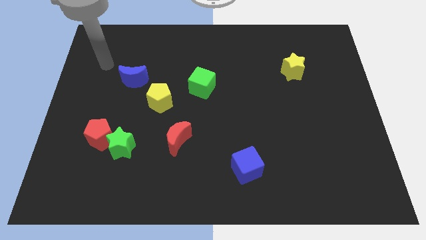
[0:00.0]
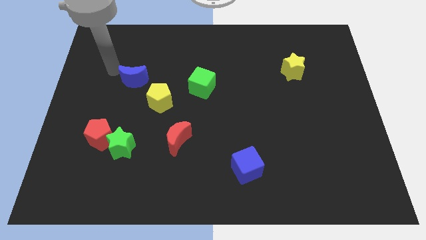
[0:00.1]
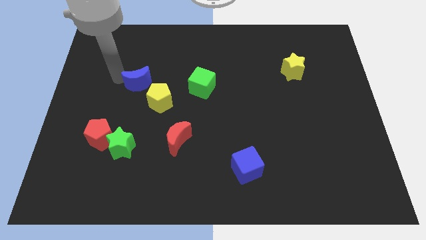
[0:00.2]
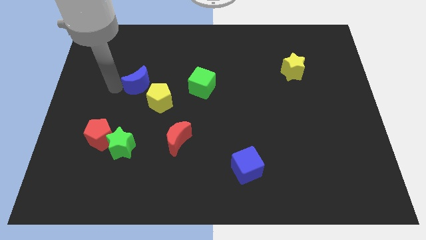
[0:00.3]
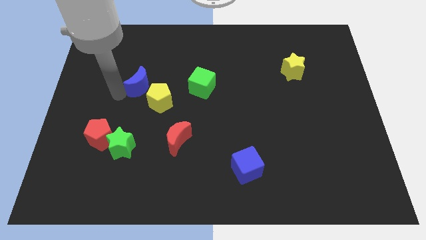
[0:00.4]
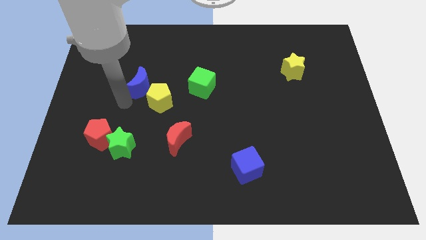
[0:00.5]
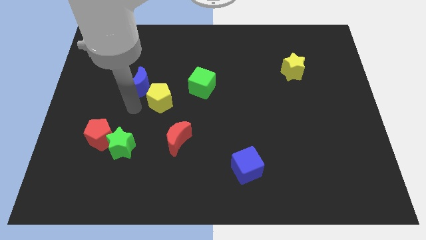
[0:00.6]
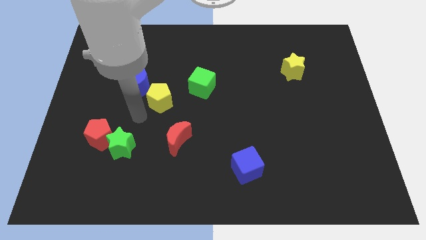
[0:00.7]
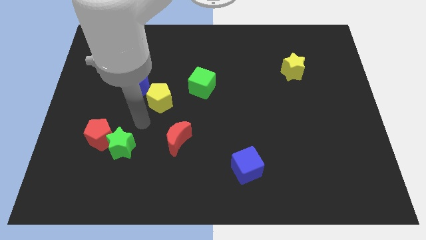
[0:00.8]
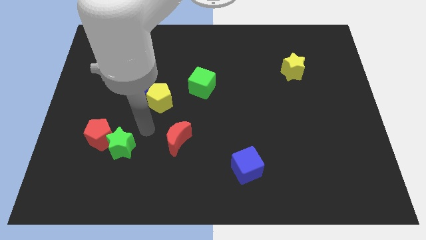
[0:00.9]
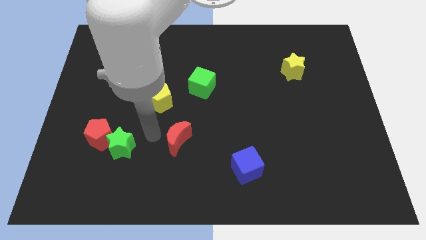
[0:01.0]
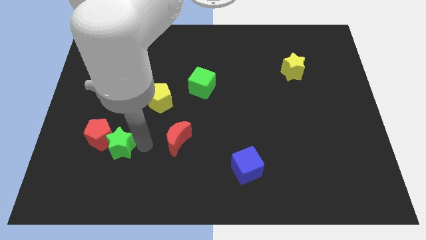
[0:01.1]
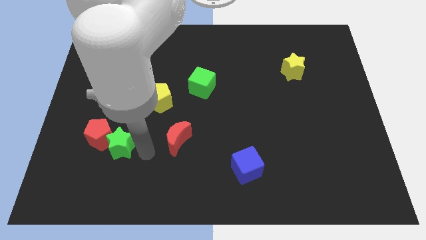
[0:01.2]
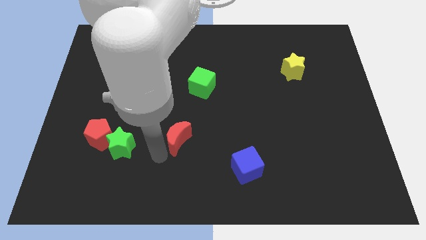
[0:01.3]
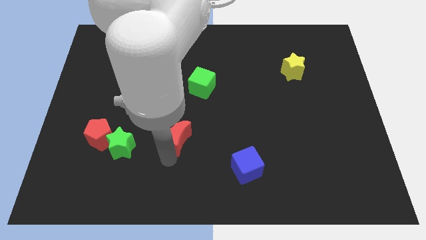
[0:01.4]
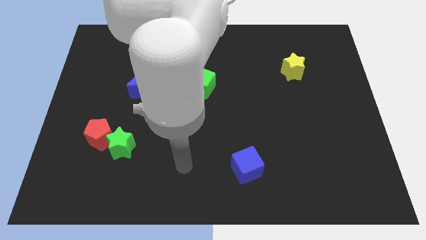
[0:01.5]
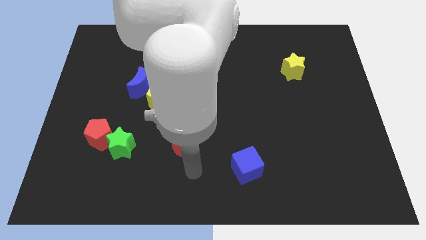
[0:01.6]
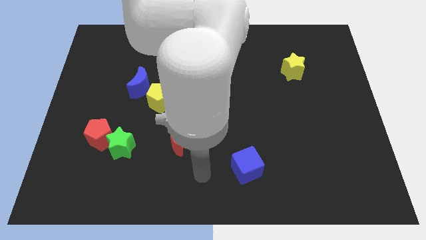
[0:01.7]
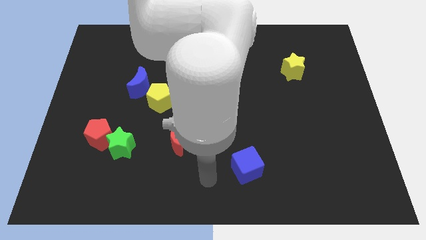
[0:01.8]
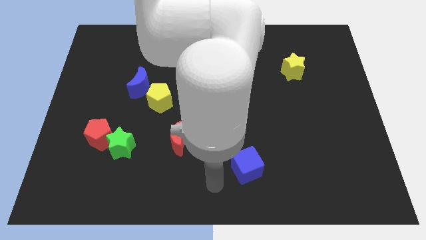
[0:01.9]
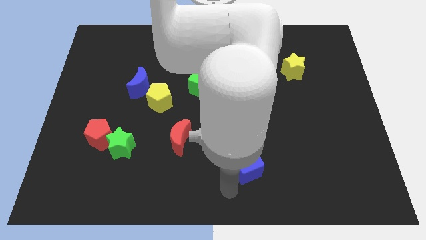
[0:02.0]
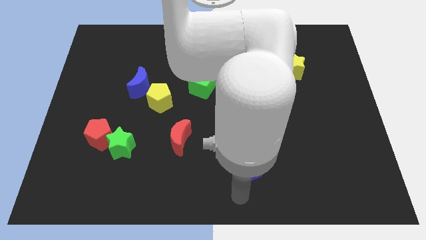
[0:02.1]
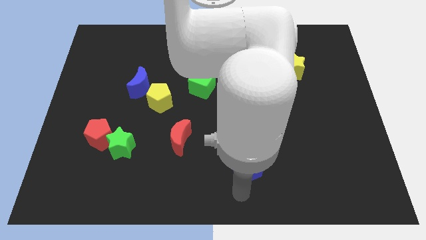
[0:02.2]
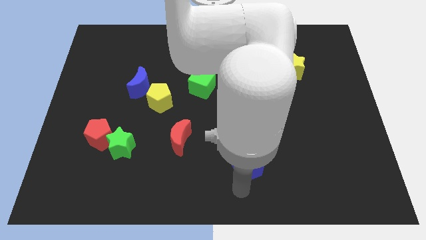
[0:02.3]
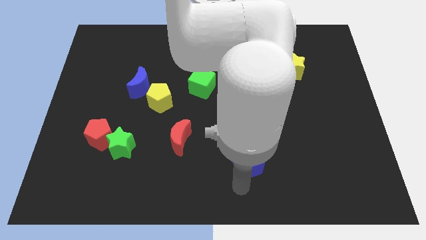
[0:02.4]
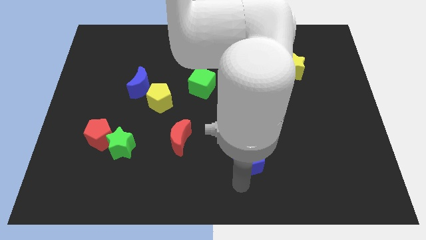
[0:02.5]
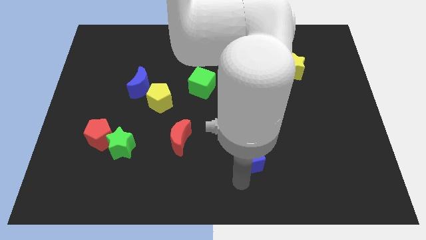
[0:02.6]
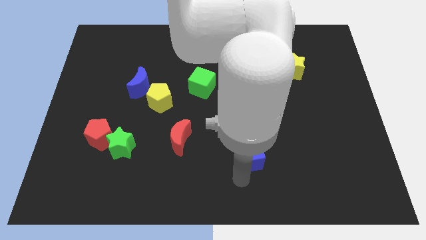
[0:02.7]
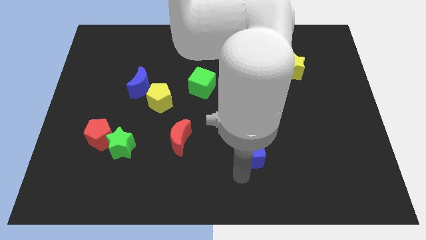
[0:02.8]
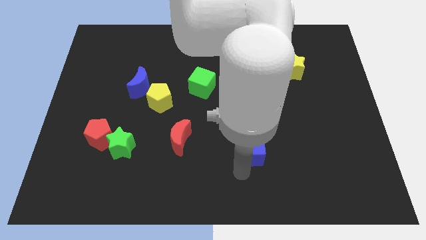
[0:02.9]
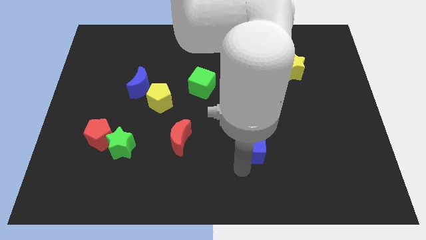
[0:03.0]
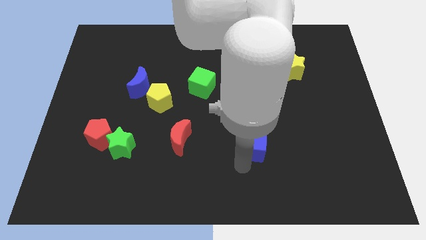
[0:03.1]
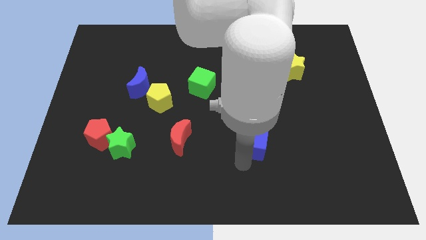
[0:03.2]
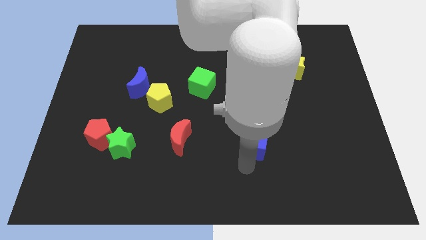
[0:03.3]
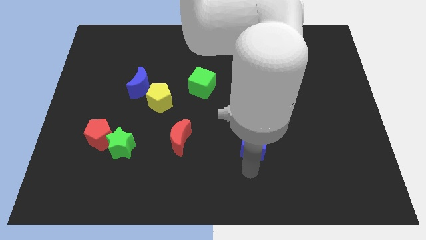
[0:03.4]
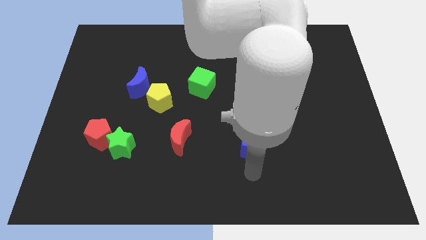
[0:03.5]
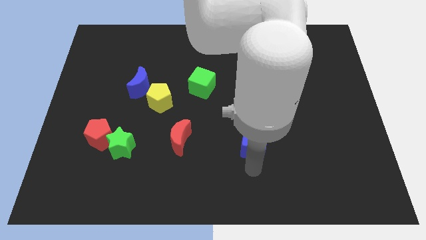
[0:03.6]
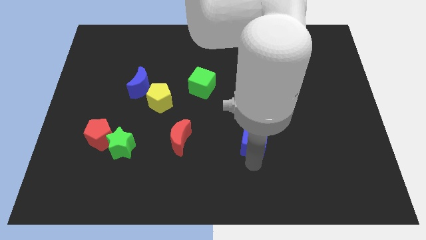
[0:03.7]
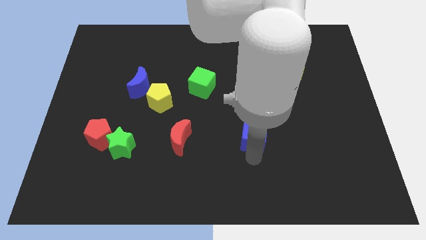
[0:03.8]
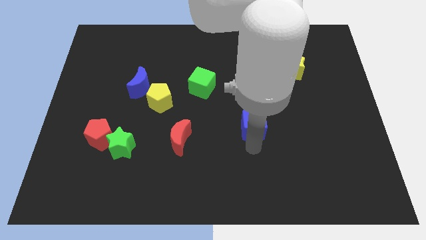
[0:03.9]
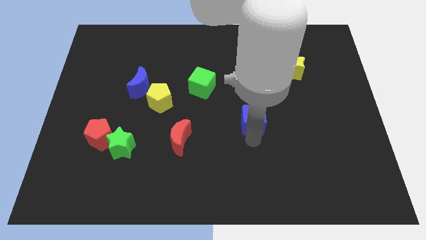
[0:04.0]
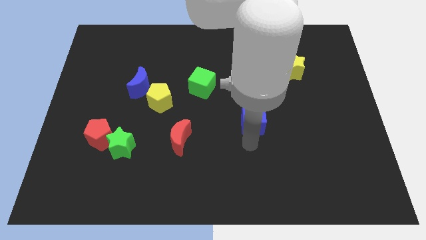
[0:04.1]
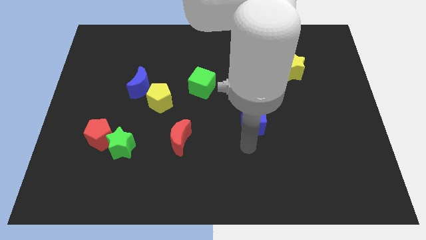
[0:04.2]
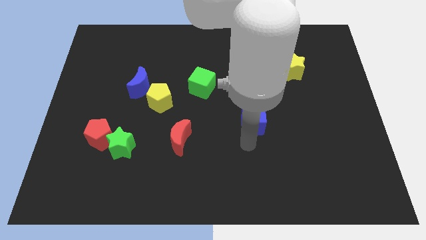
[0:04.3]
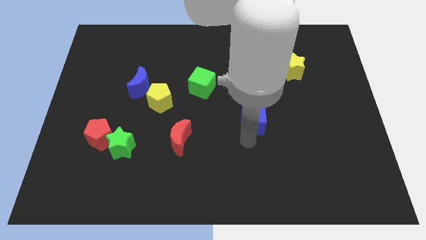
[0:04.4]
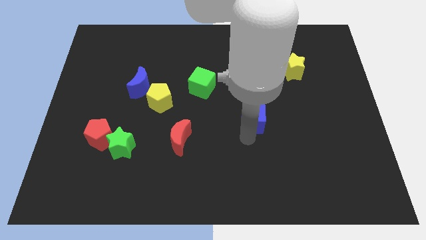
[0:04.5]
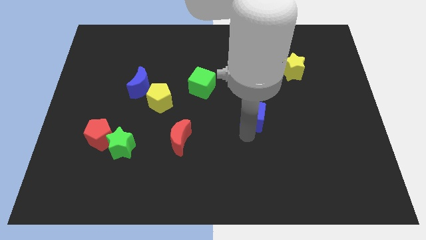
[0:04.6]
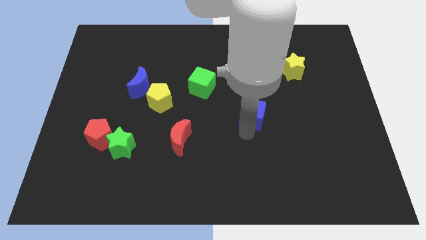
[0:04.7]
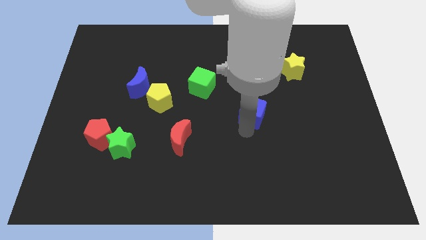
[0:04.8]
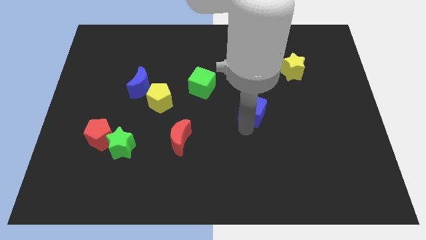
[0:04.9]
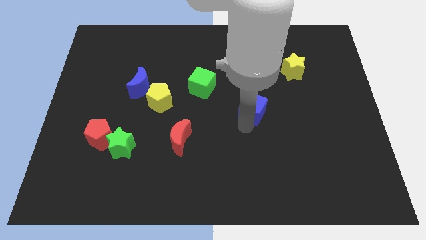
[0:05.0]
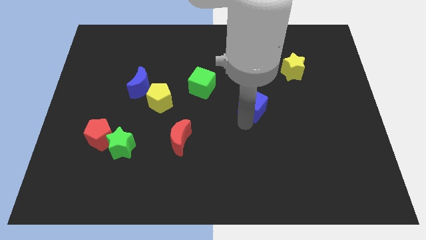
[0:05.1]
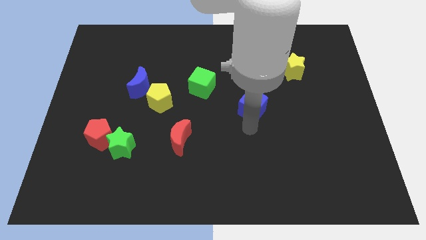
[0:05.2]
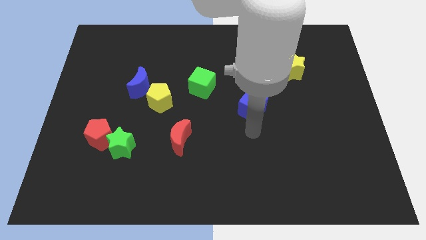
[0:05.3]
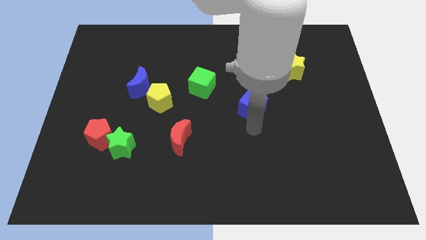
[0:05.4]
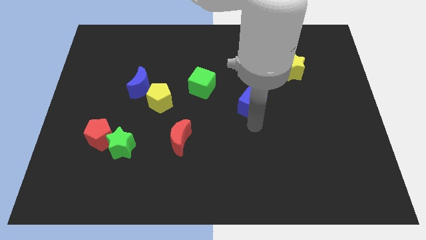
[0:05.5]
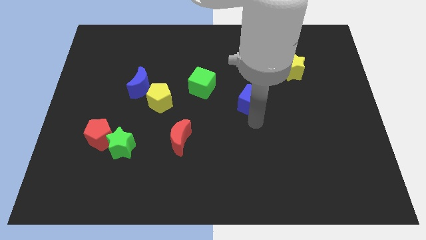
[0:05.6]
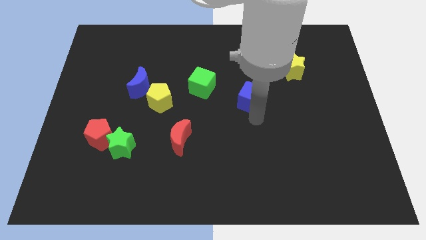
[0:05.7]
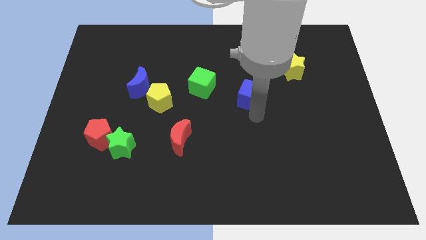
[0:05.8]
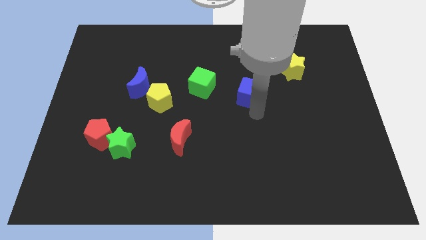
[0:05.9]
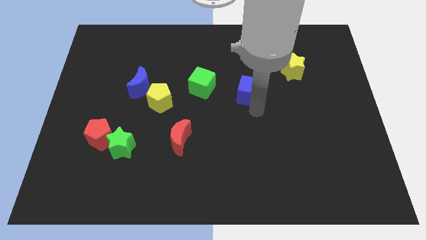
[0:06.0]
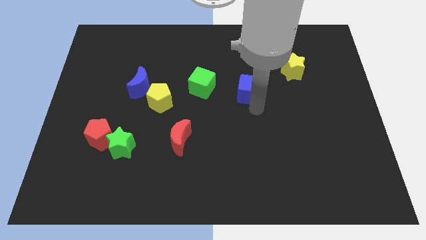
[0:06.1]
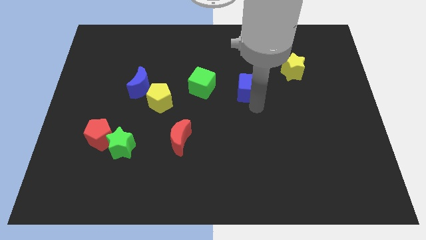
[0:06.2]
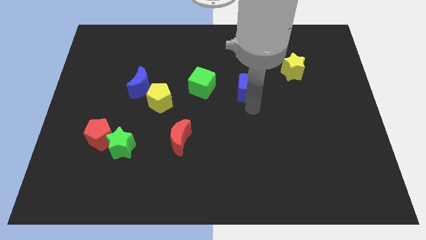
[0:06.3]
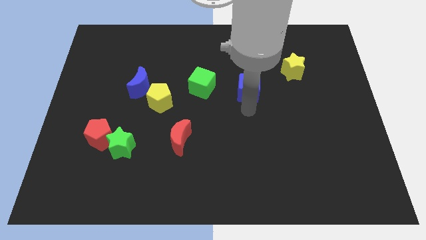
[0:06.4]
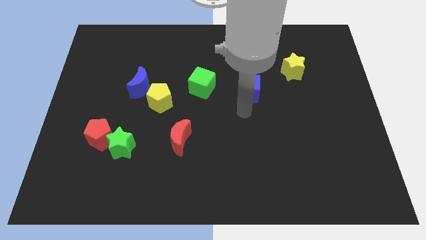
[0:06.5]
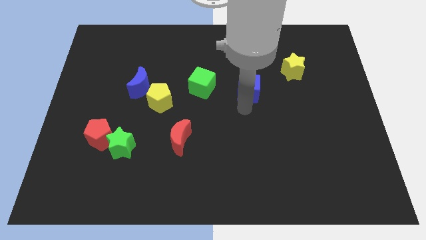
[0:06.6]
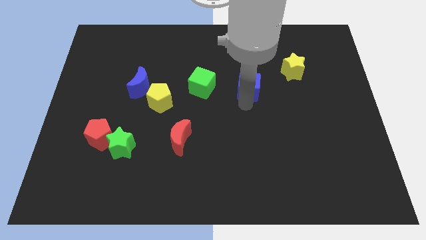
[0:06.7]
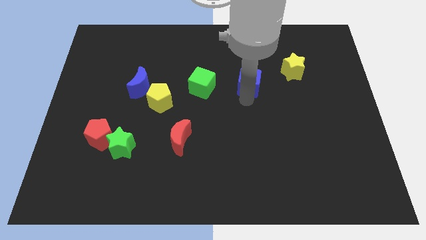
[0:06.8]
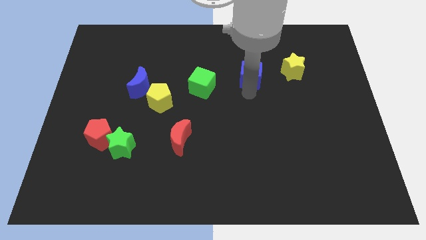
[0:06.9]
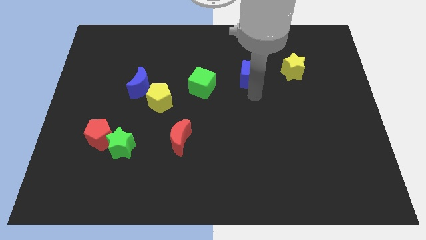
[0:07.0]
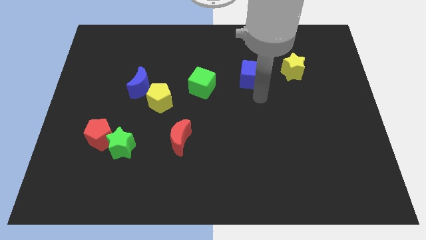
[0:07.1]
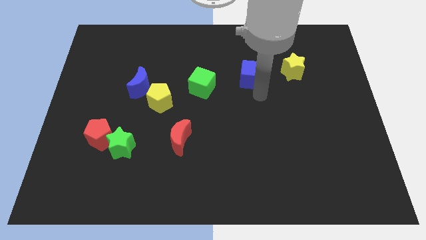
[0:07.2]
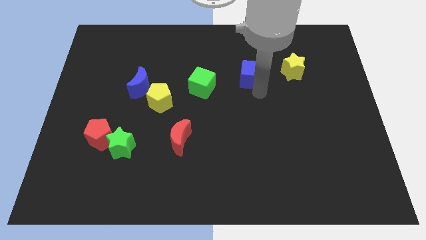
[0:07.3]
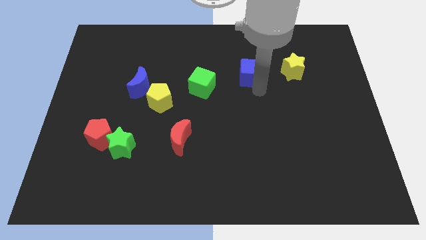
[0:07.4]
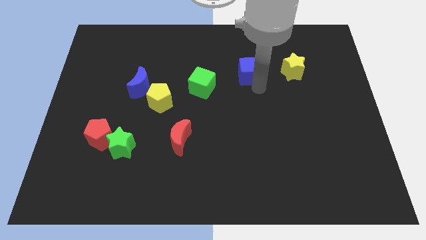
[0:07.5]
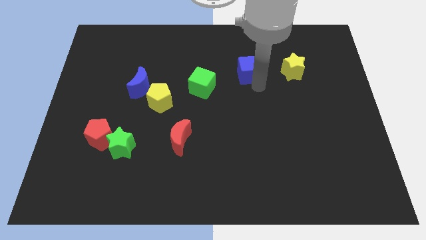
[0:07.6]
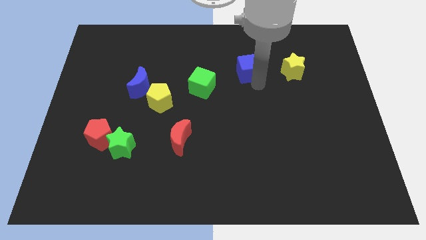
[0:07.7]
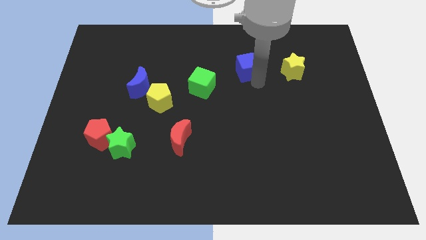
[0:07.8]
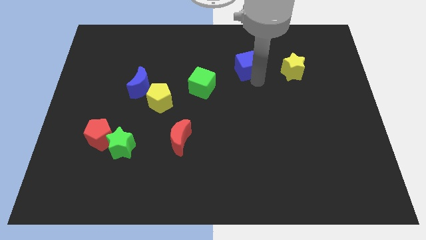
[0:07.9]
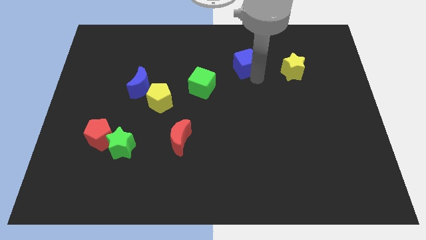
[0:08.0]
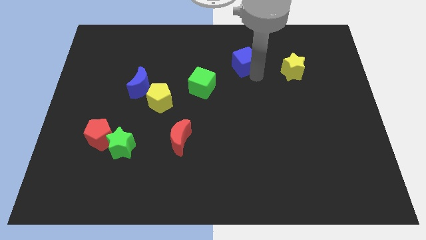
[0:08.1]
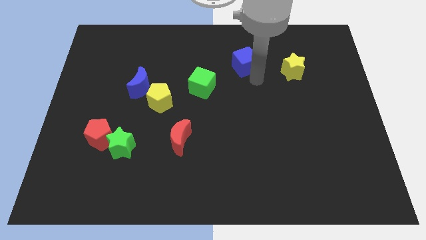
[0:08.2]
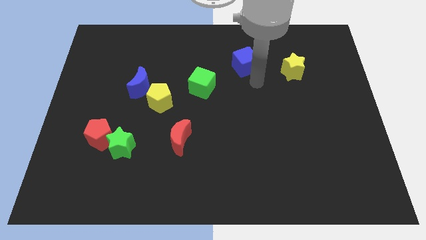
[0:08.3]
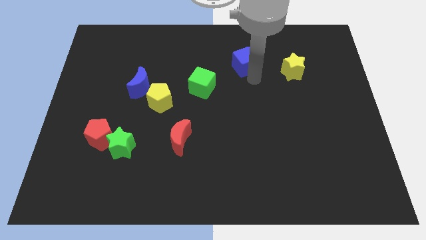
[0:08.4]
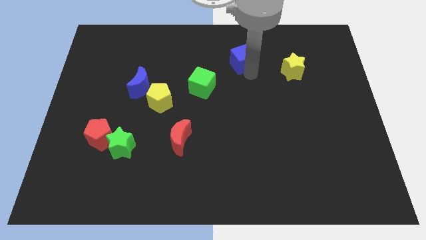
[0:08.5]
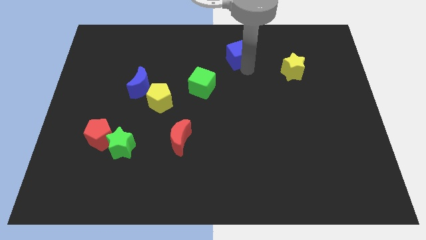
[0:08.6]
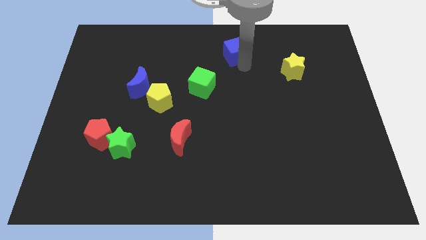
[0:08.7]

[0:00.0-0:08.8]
move the blue cube to the towards your base
